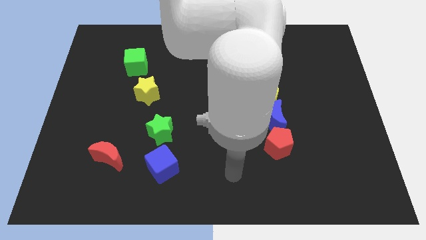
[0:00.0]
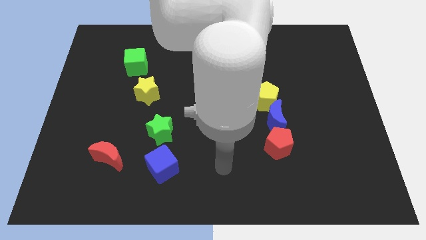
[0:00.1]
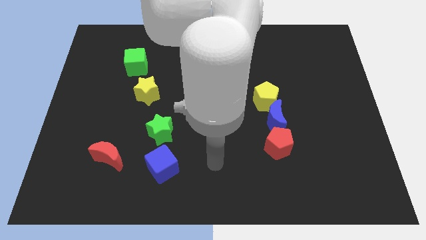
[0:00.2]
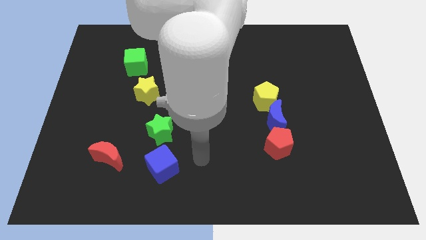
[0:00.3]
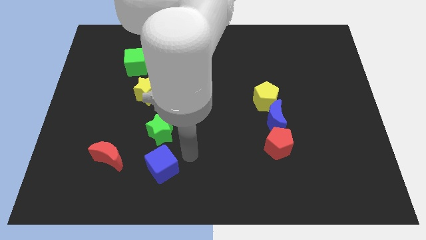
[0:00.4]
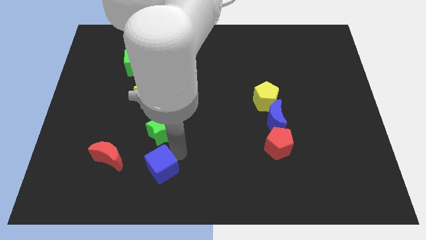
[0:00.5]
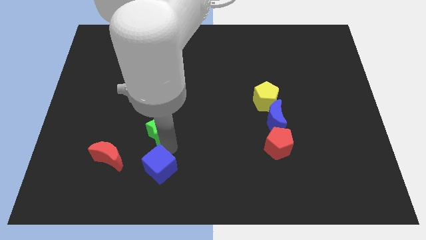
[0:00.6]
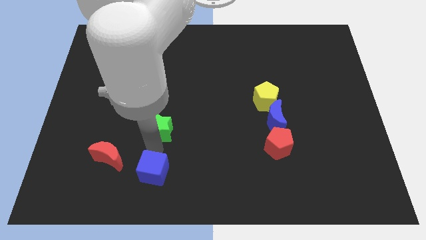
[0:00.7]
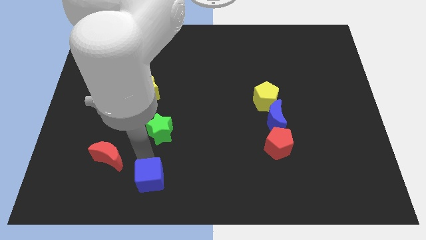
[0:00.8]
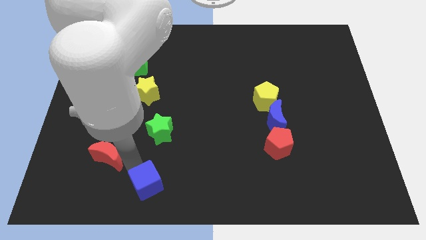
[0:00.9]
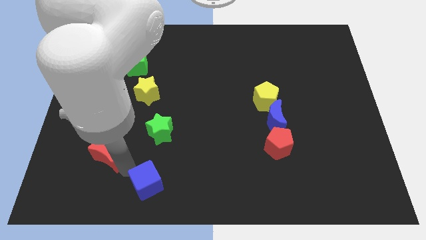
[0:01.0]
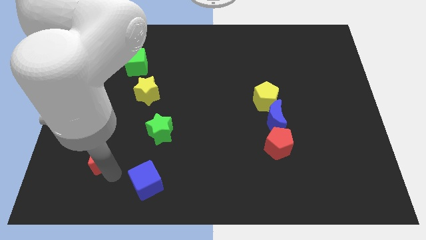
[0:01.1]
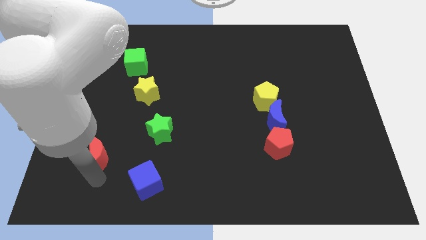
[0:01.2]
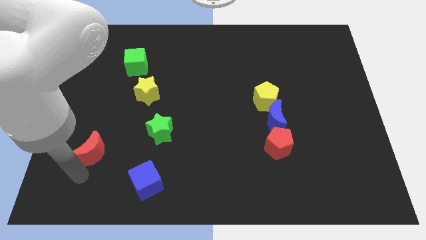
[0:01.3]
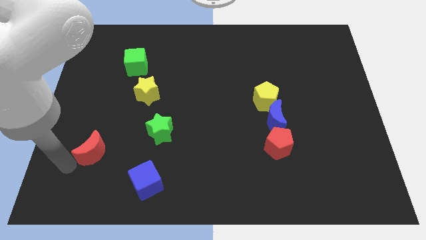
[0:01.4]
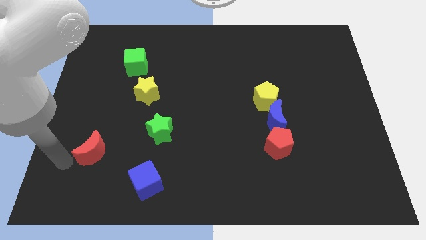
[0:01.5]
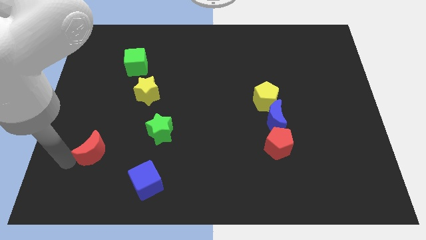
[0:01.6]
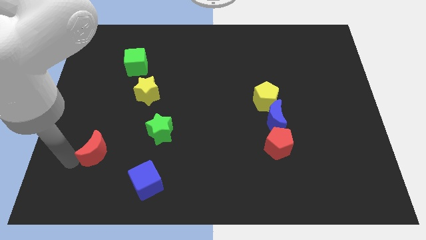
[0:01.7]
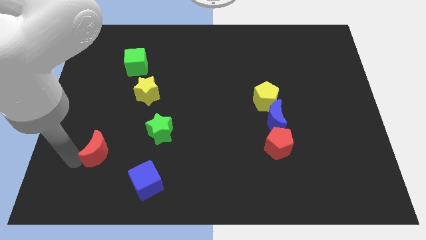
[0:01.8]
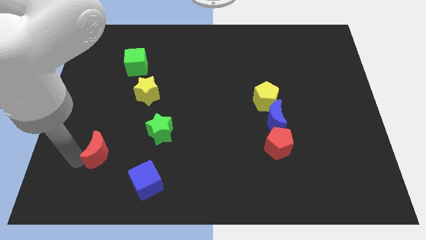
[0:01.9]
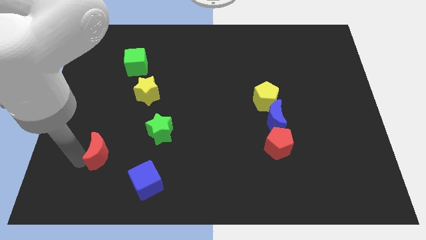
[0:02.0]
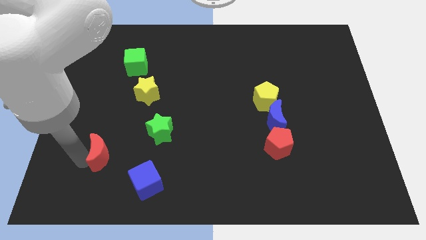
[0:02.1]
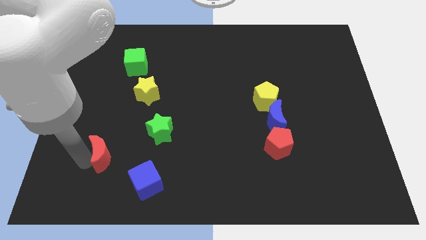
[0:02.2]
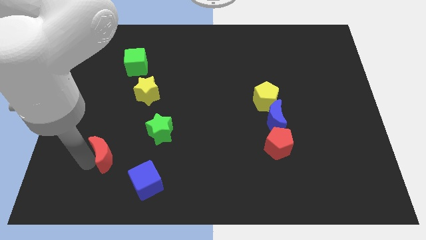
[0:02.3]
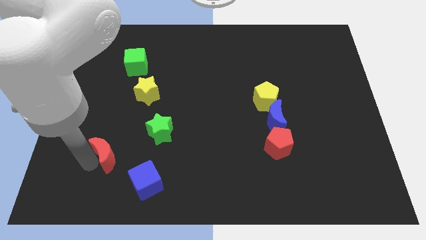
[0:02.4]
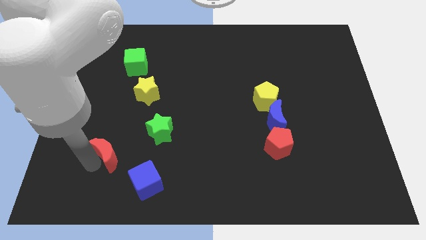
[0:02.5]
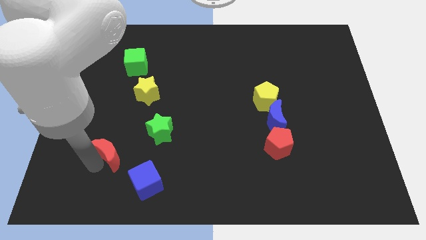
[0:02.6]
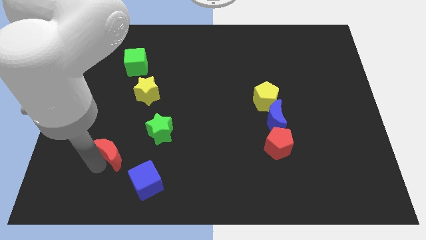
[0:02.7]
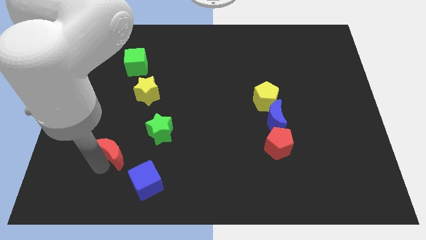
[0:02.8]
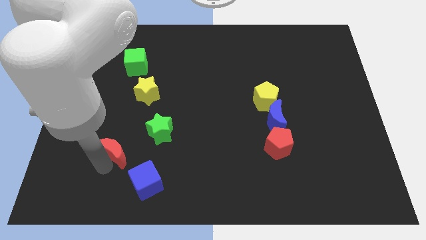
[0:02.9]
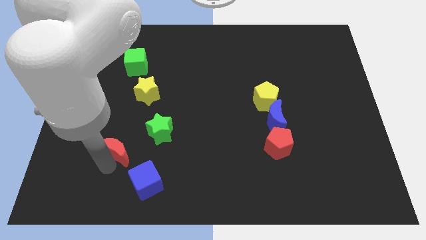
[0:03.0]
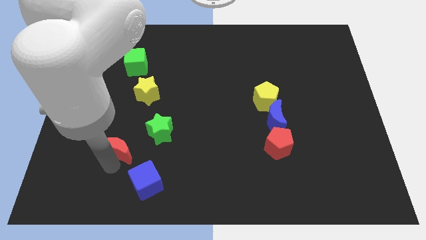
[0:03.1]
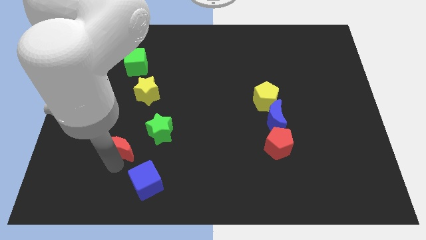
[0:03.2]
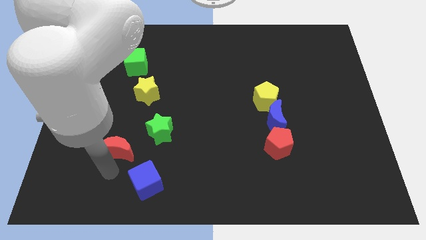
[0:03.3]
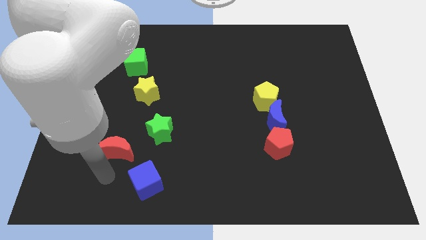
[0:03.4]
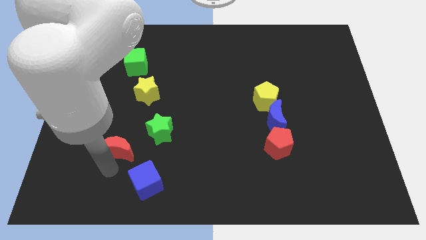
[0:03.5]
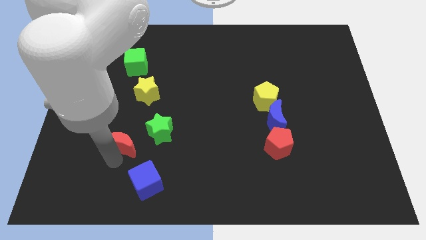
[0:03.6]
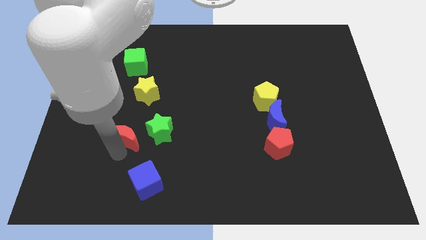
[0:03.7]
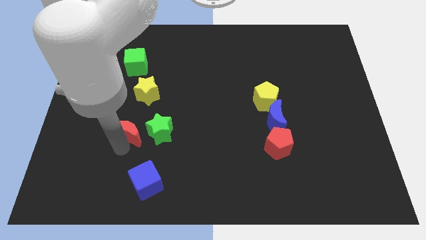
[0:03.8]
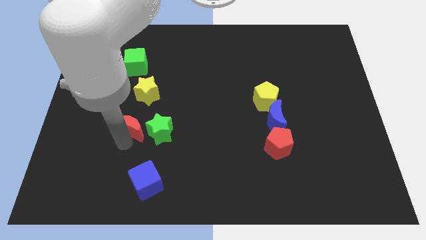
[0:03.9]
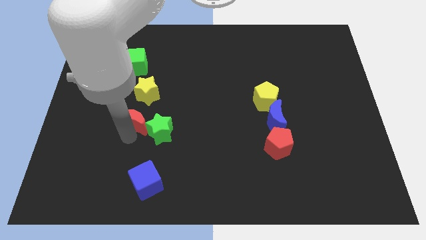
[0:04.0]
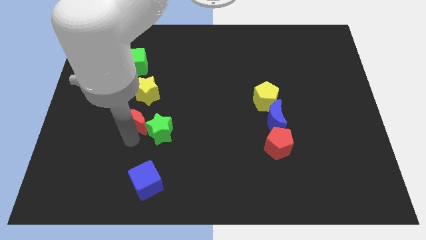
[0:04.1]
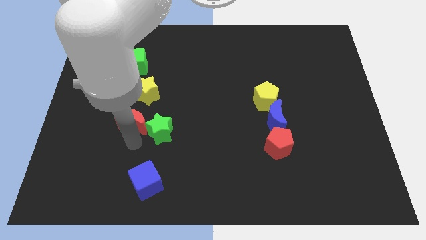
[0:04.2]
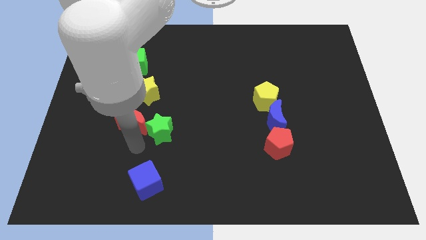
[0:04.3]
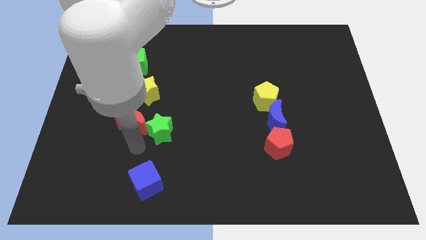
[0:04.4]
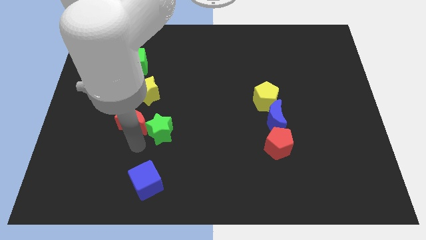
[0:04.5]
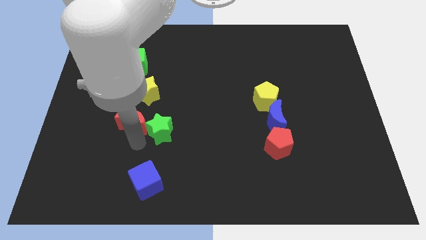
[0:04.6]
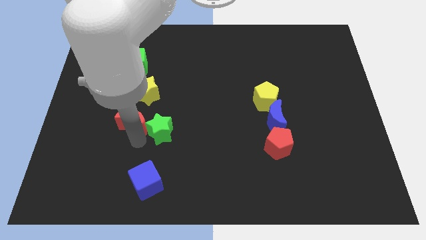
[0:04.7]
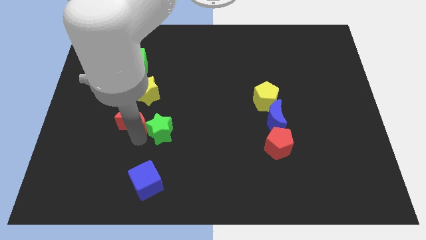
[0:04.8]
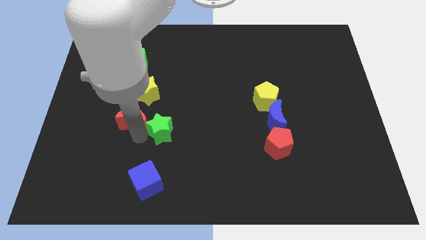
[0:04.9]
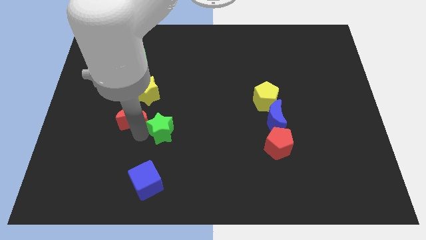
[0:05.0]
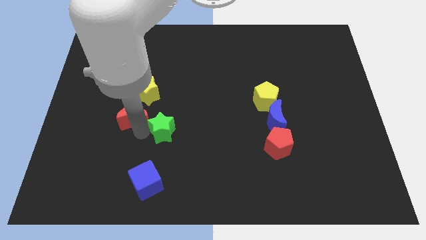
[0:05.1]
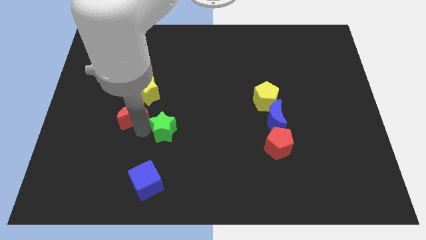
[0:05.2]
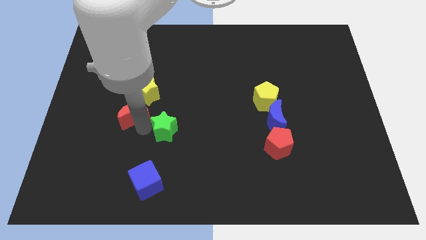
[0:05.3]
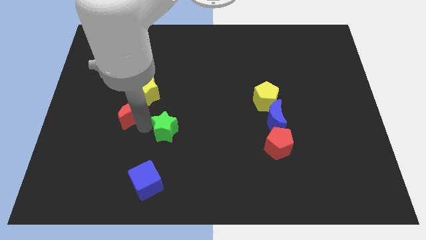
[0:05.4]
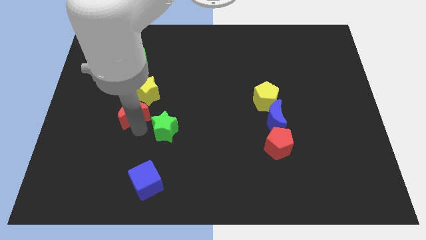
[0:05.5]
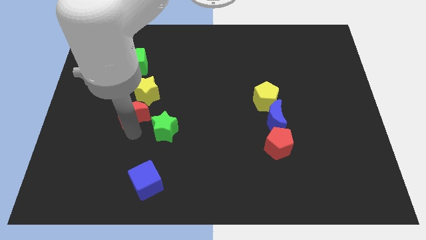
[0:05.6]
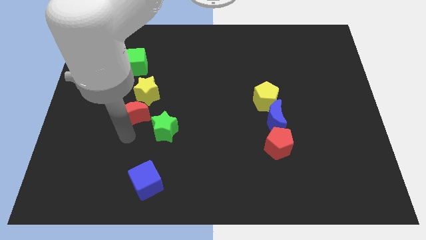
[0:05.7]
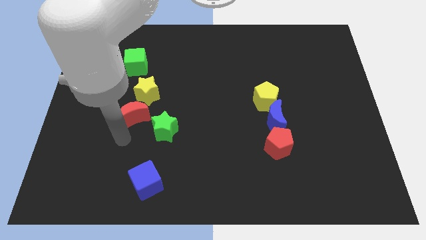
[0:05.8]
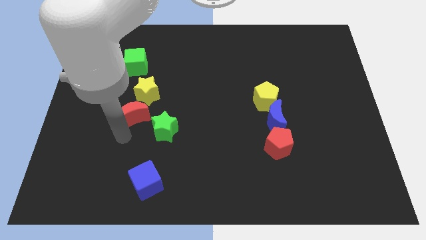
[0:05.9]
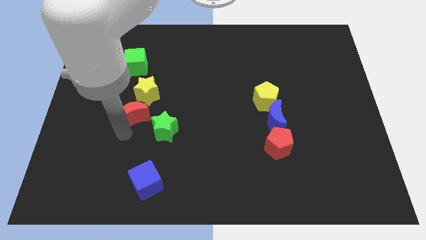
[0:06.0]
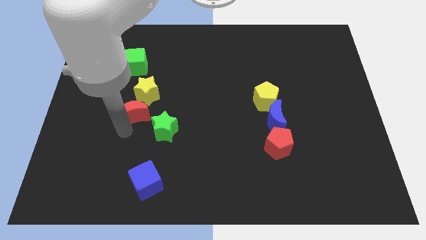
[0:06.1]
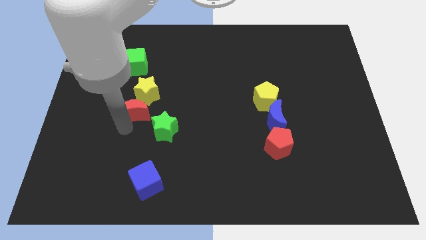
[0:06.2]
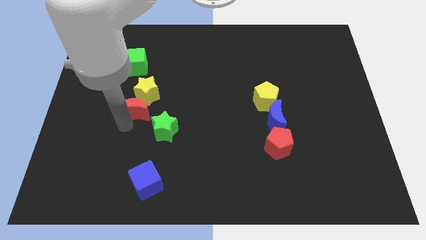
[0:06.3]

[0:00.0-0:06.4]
put the red moon close to the yellow star

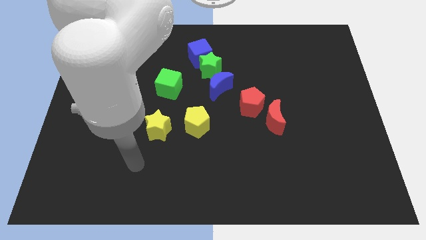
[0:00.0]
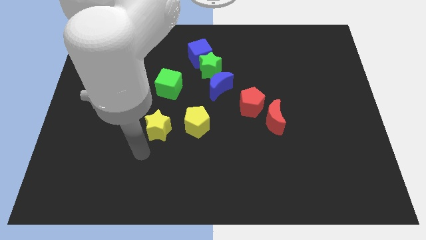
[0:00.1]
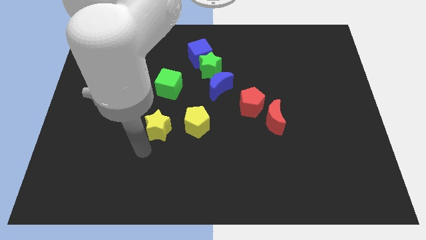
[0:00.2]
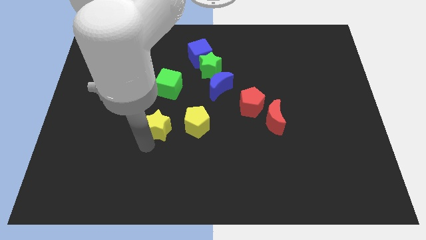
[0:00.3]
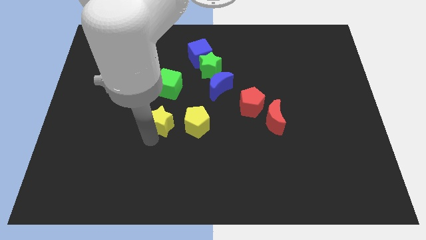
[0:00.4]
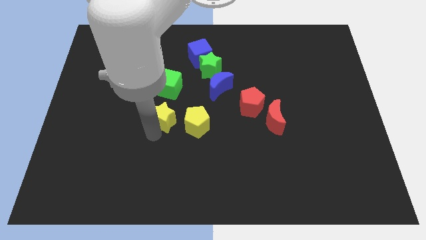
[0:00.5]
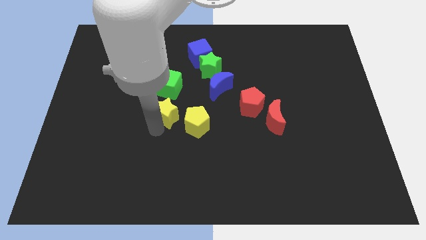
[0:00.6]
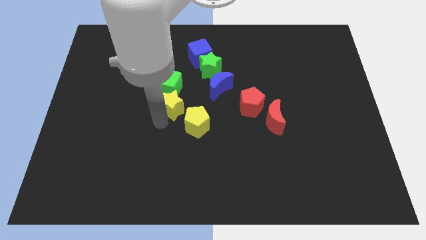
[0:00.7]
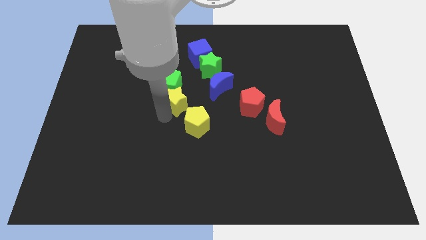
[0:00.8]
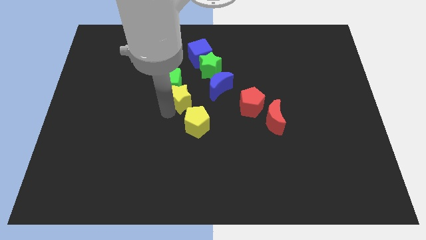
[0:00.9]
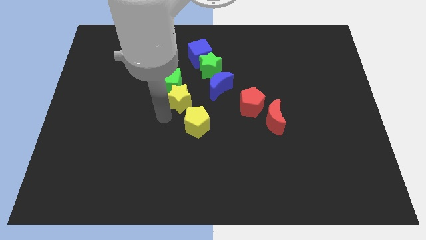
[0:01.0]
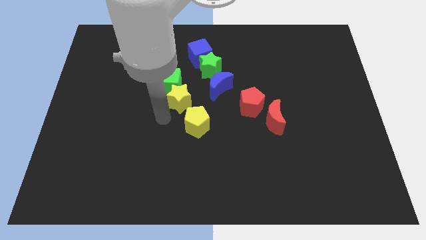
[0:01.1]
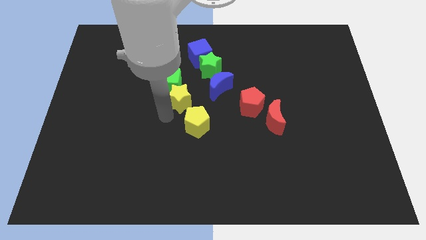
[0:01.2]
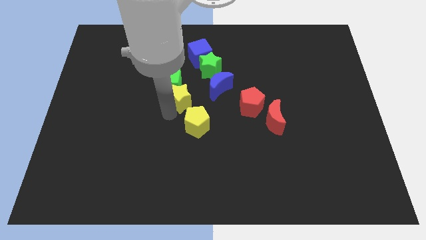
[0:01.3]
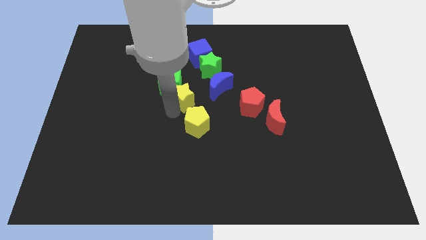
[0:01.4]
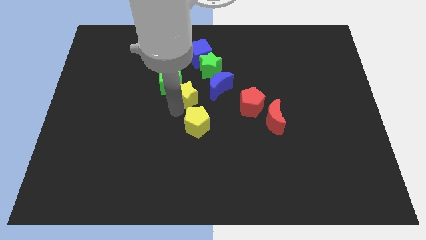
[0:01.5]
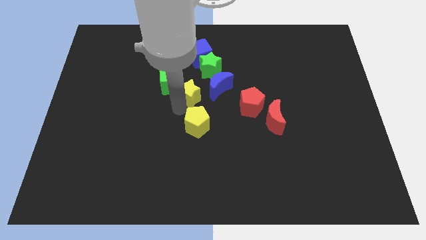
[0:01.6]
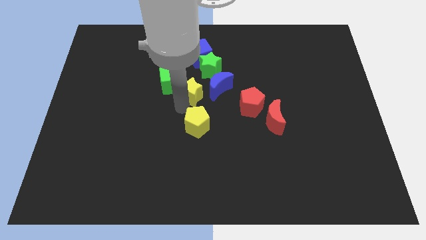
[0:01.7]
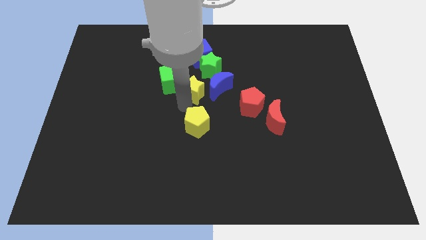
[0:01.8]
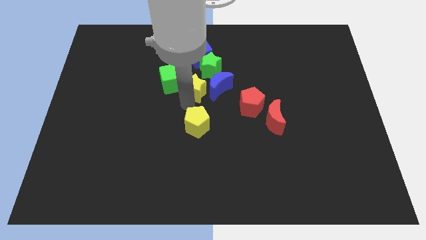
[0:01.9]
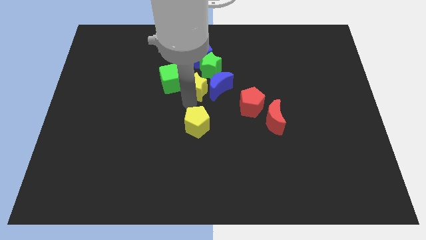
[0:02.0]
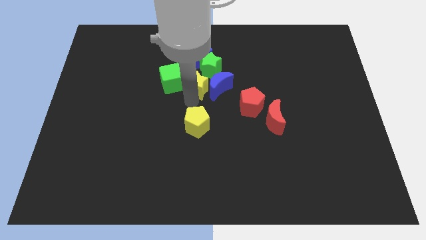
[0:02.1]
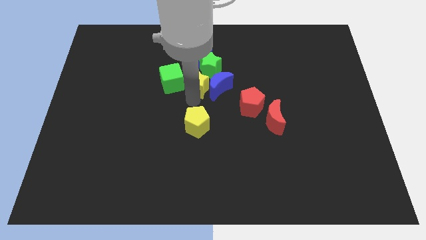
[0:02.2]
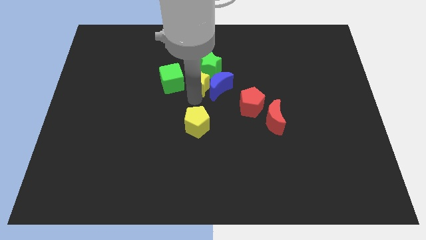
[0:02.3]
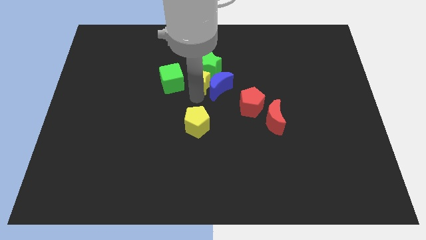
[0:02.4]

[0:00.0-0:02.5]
move the yellow star close to the green star
